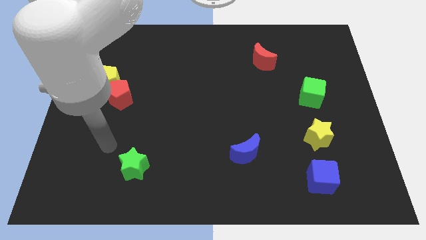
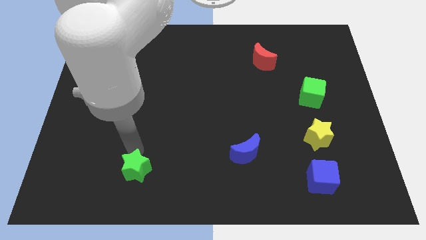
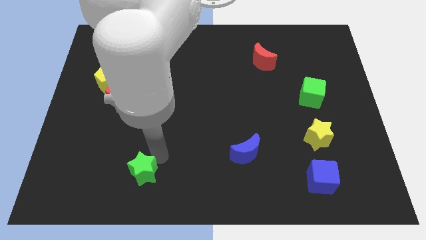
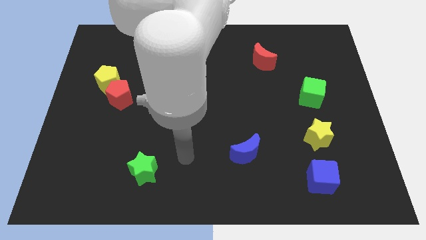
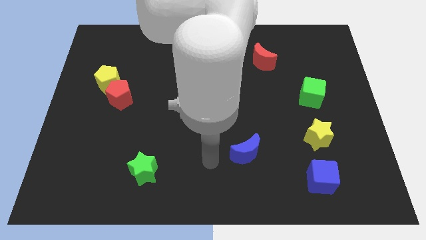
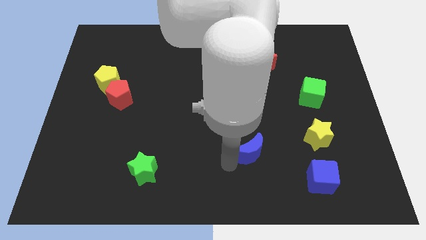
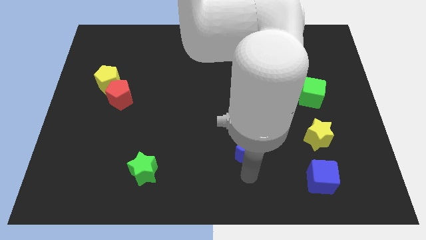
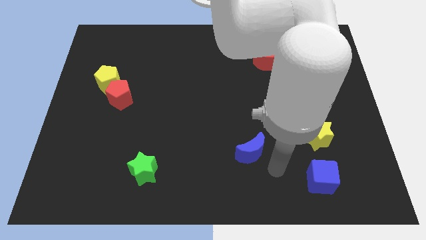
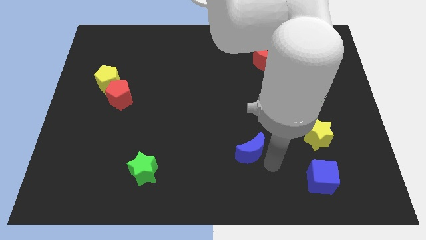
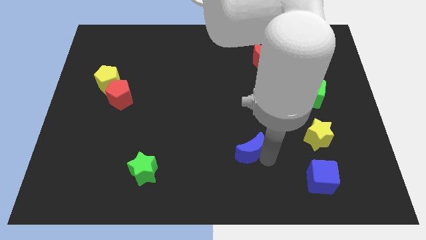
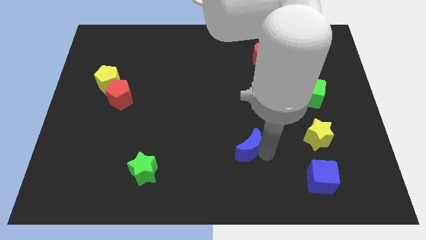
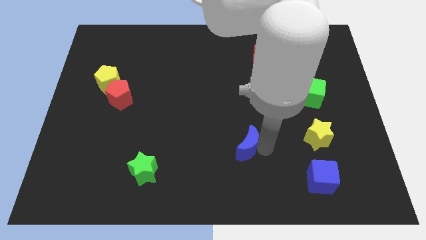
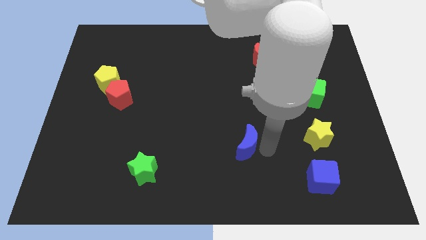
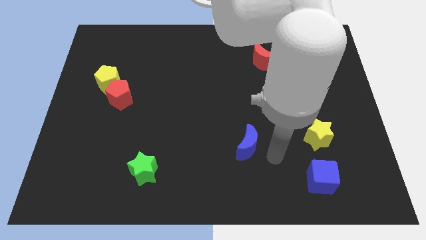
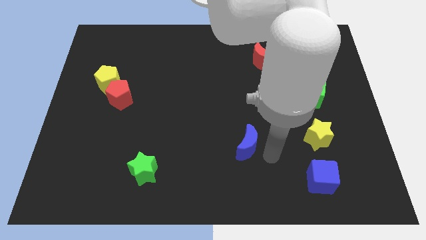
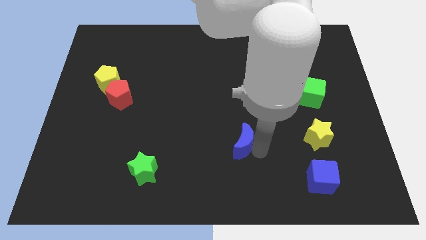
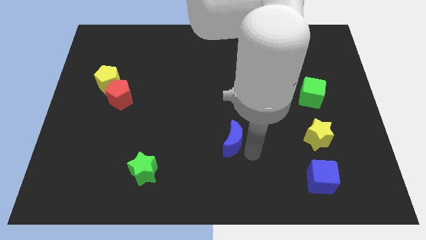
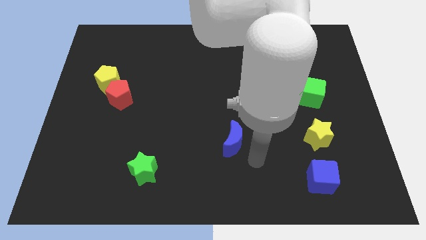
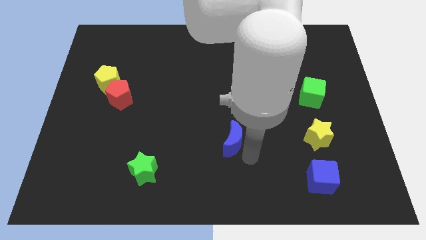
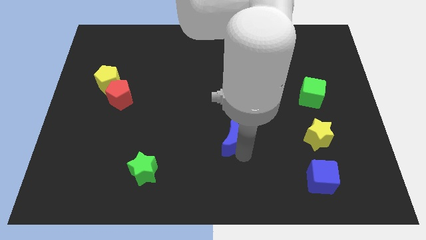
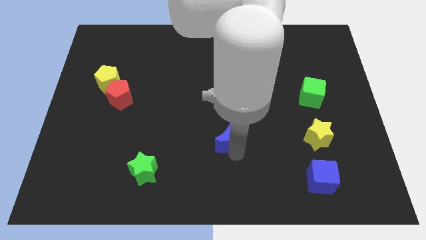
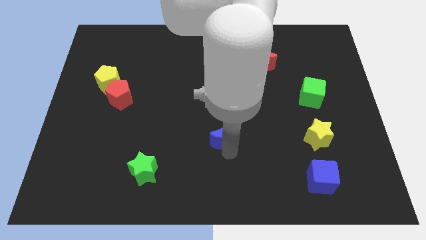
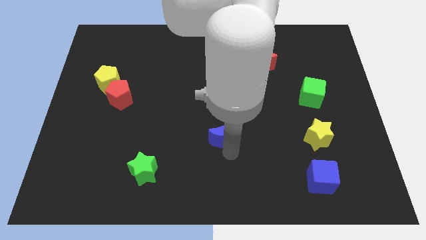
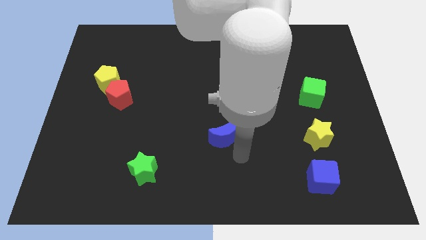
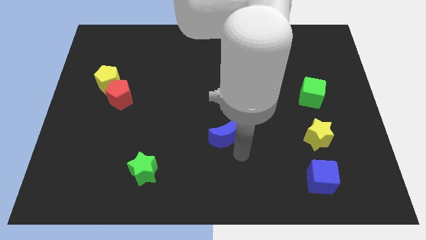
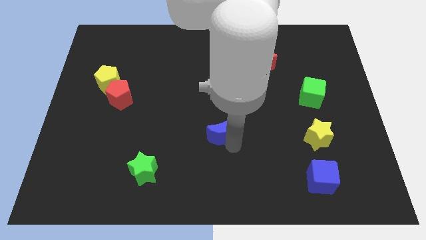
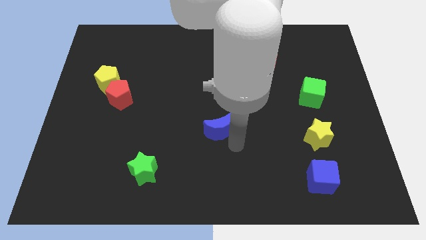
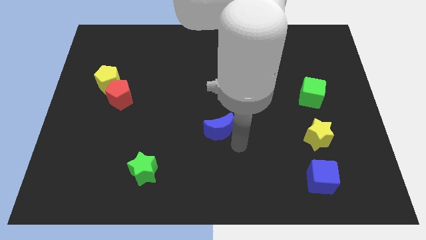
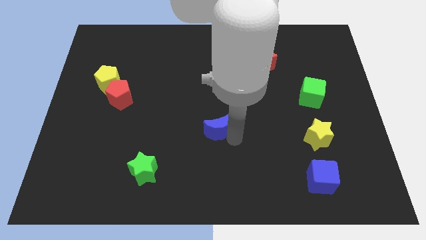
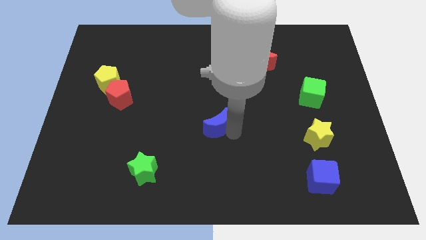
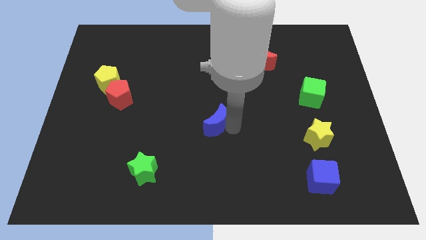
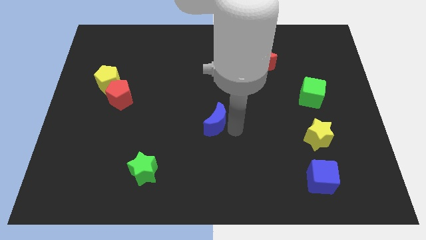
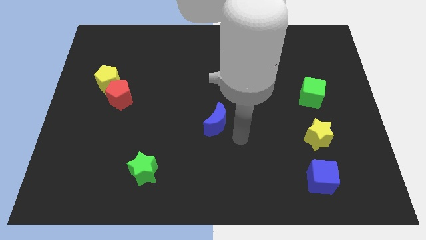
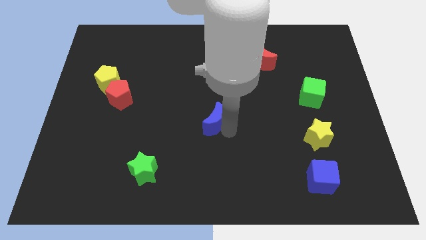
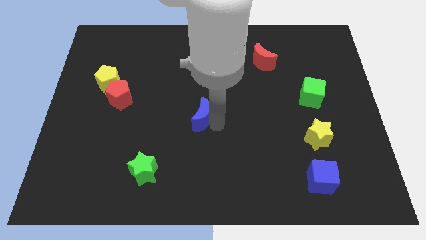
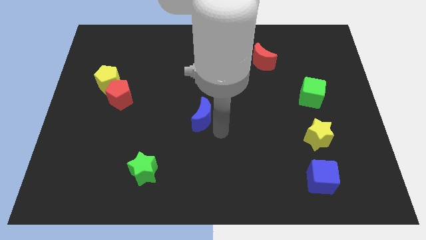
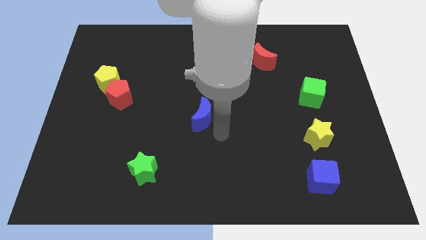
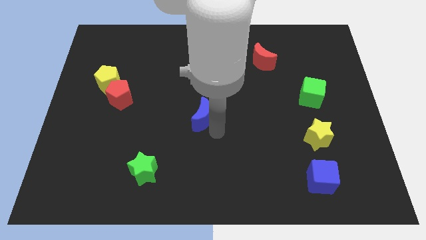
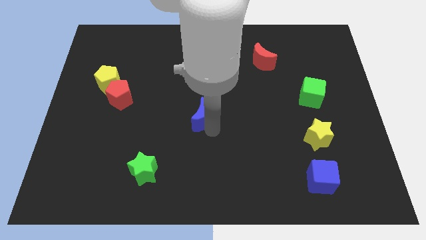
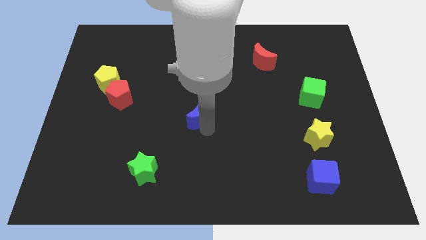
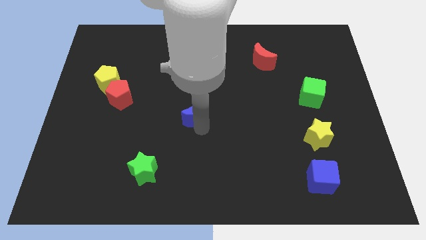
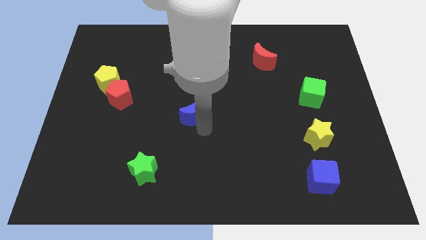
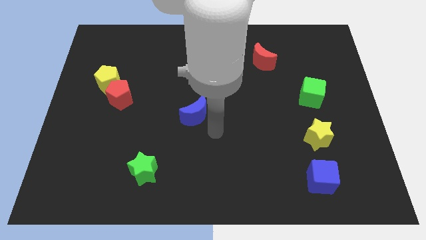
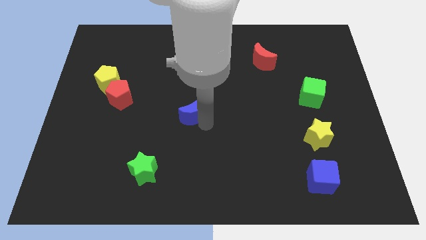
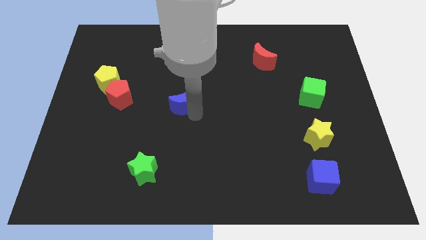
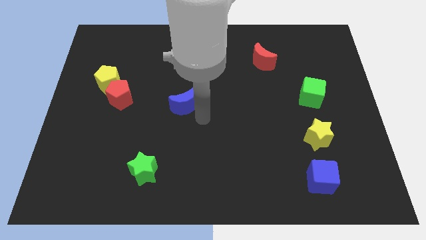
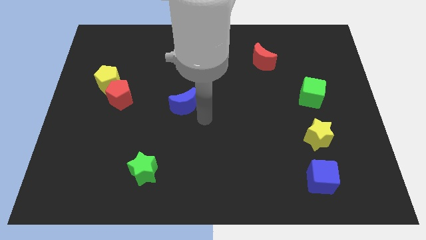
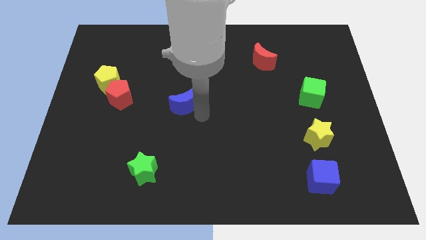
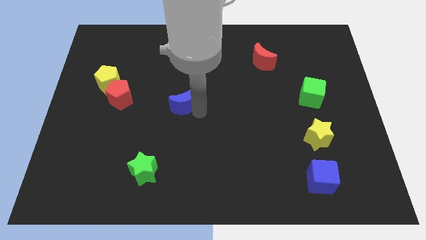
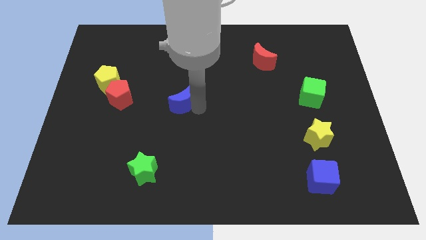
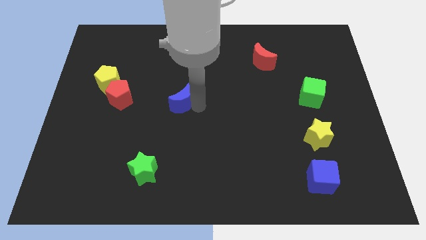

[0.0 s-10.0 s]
push the blue moon upwards and left diagonally

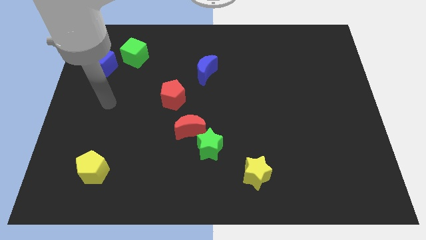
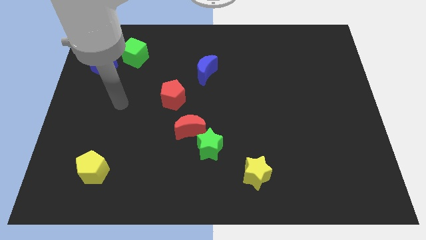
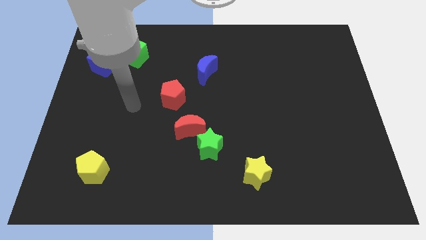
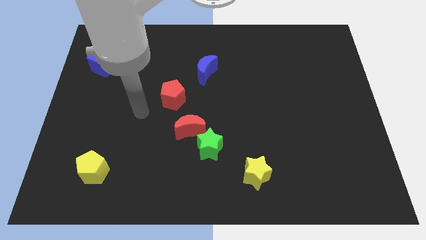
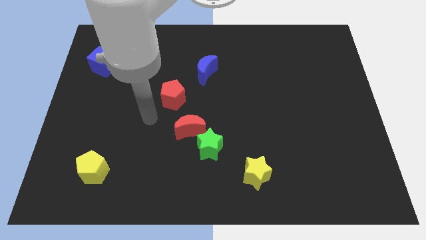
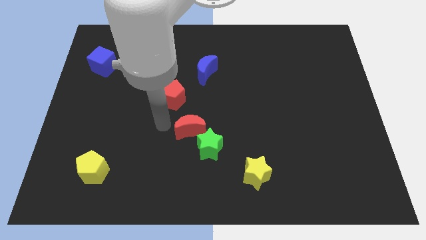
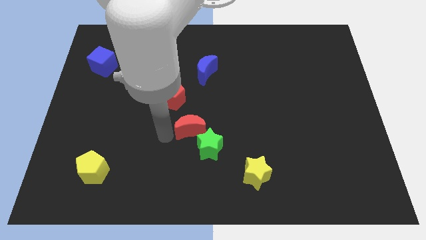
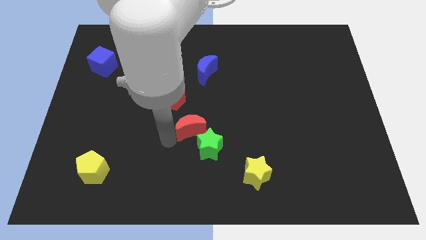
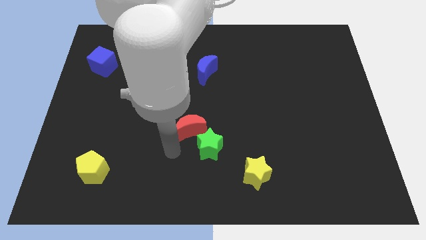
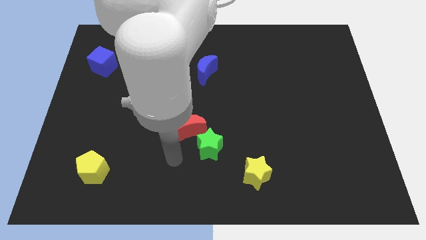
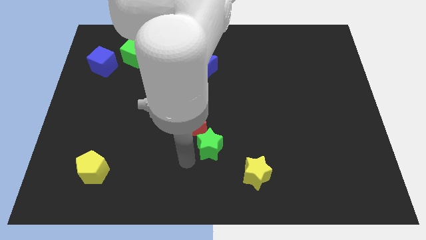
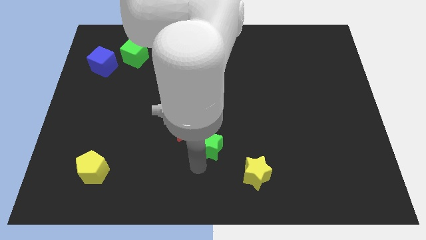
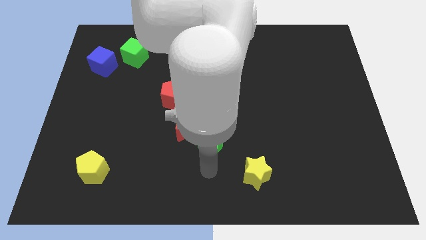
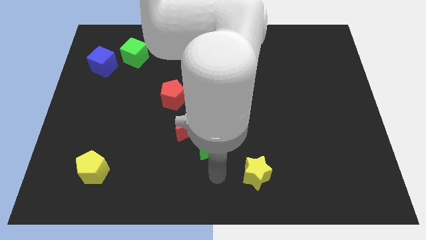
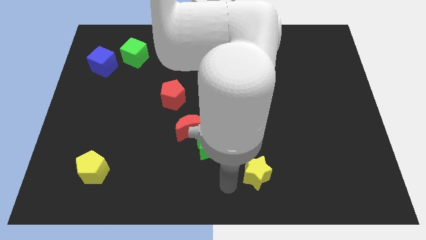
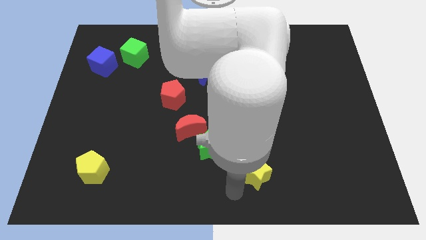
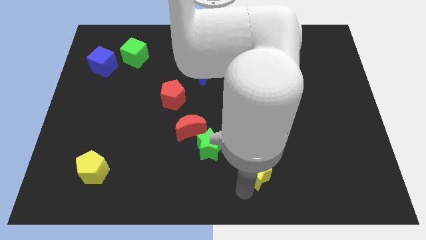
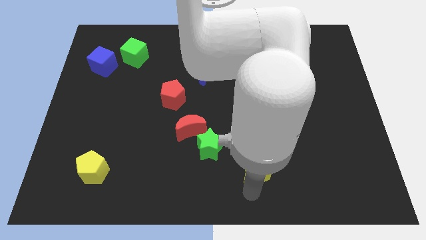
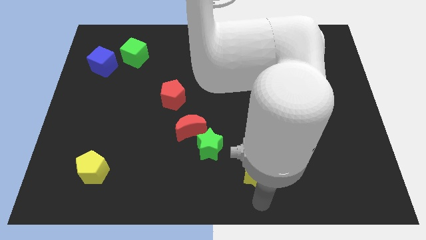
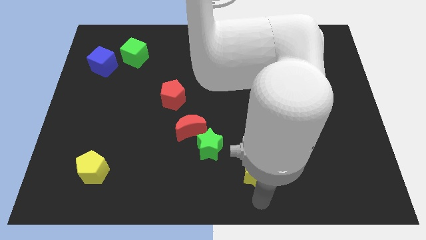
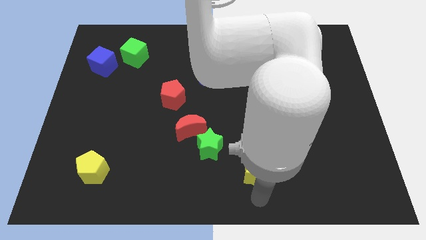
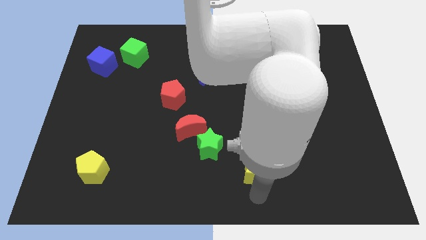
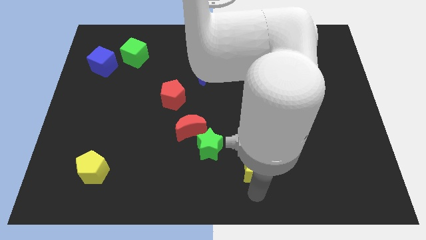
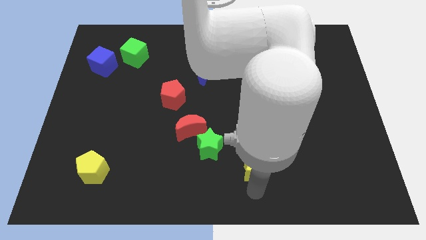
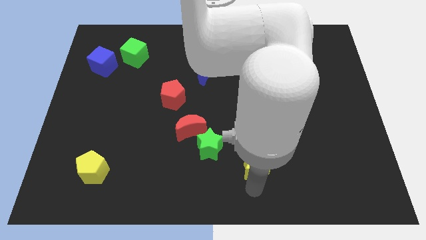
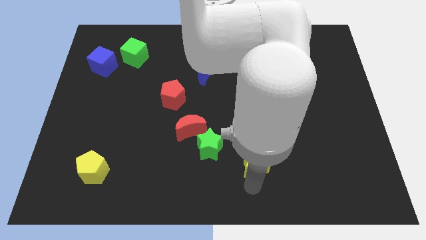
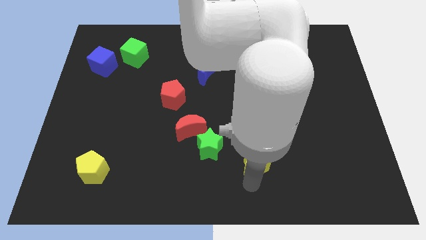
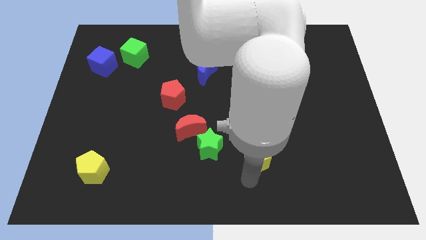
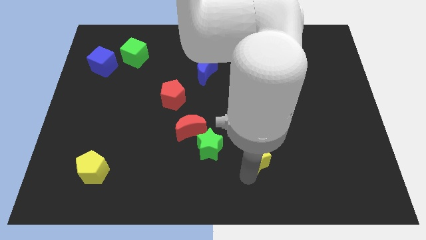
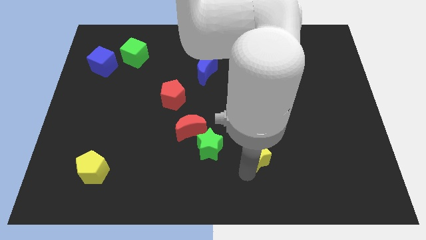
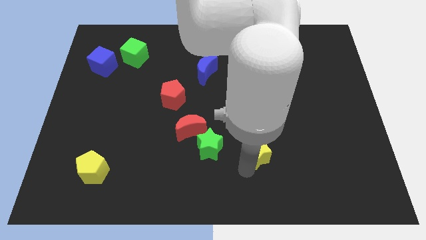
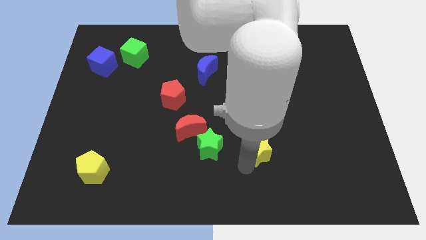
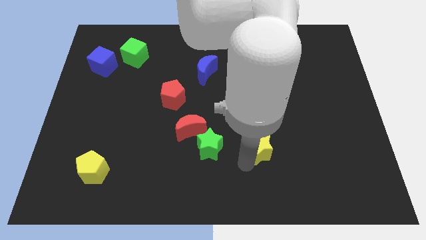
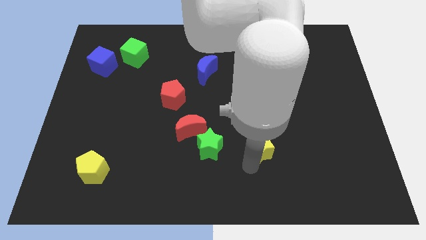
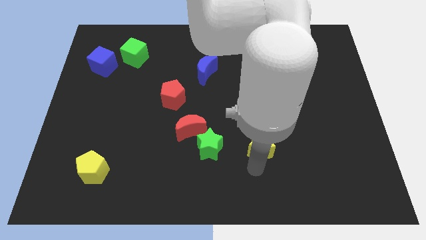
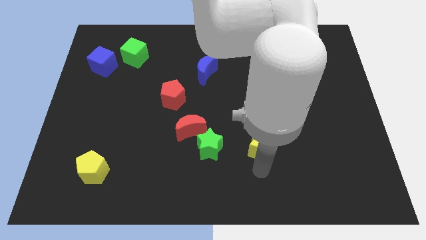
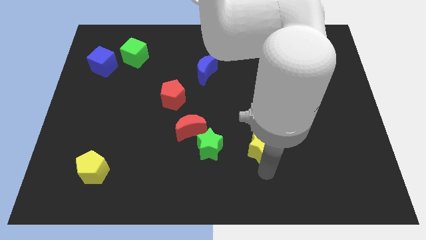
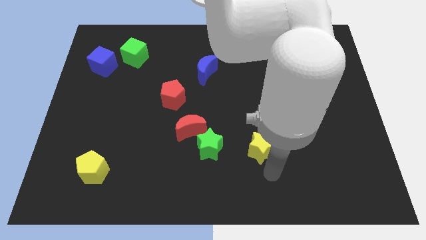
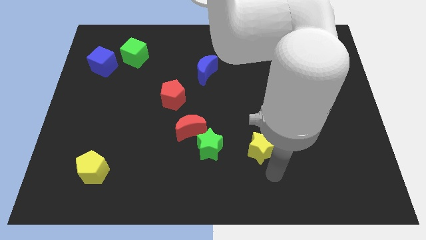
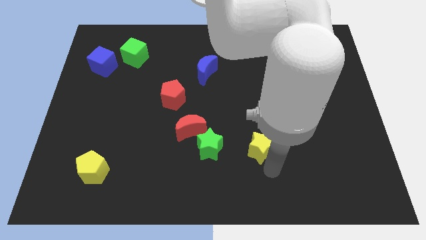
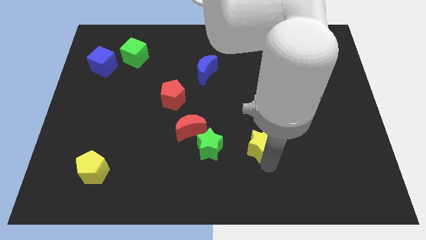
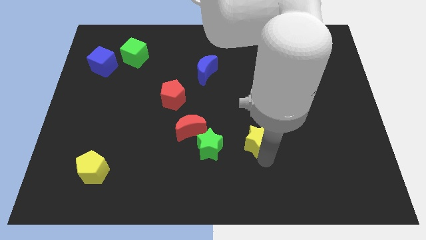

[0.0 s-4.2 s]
move the yellow star a bit upwards
